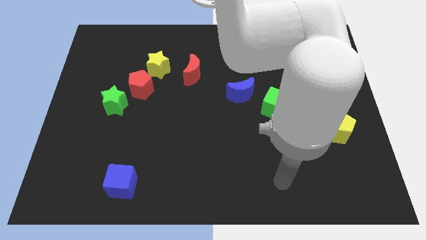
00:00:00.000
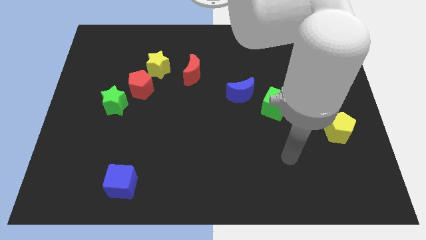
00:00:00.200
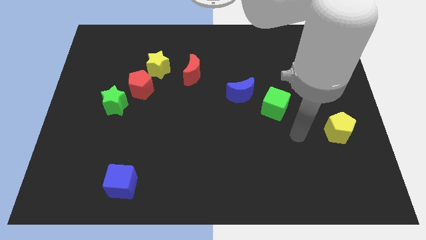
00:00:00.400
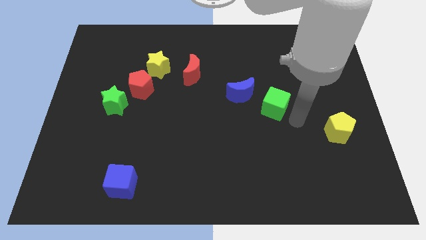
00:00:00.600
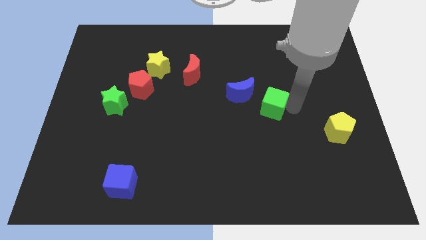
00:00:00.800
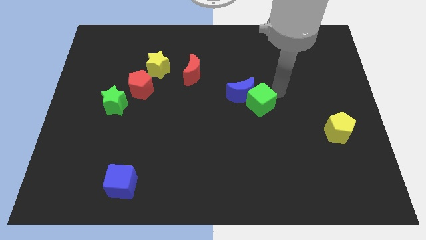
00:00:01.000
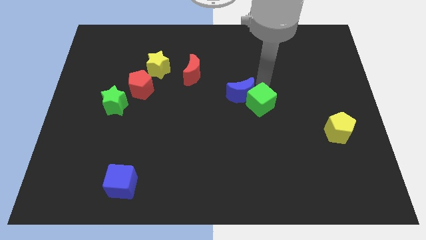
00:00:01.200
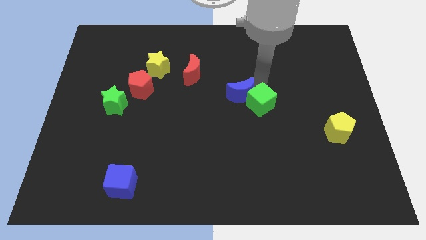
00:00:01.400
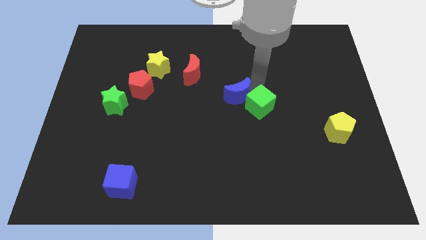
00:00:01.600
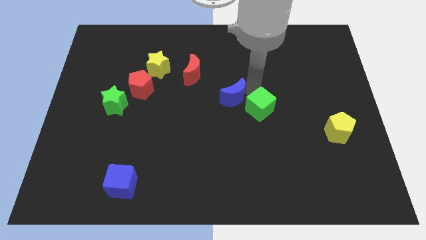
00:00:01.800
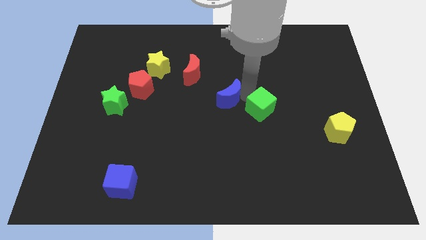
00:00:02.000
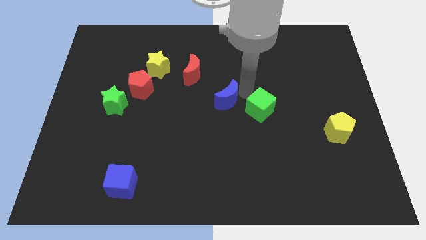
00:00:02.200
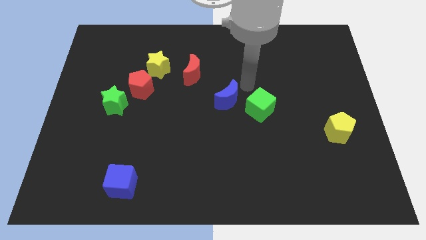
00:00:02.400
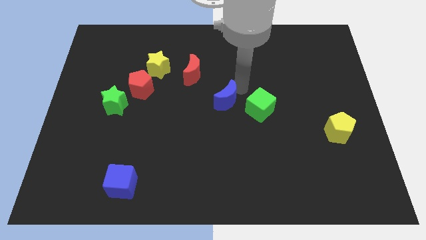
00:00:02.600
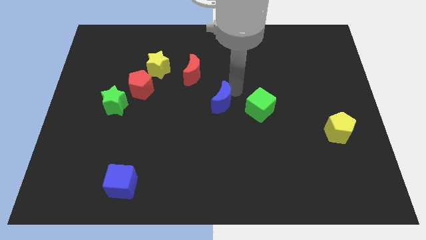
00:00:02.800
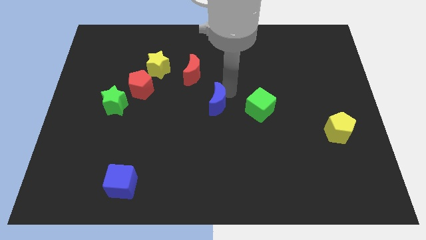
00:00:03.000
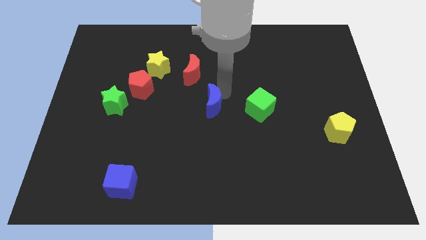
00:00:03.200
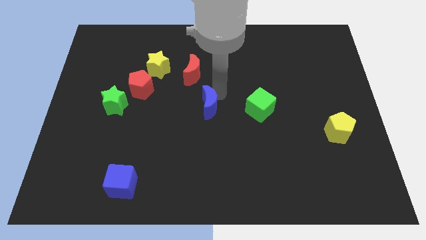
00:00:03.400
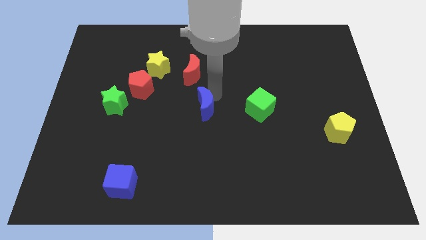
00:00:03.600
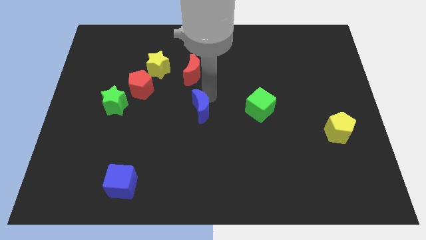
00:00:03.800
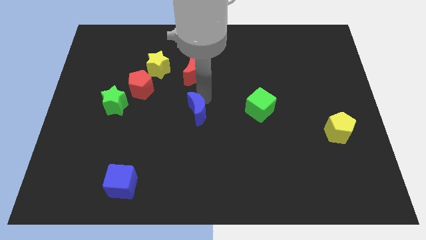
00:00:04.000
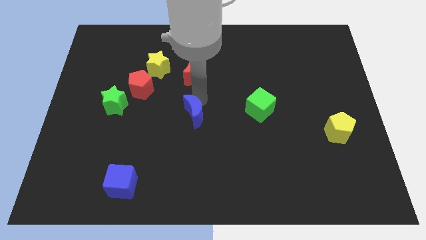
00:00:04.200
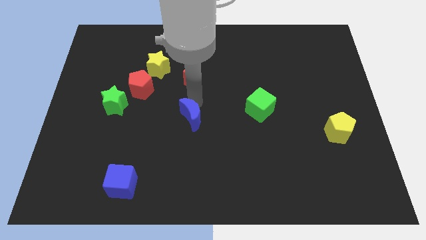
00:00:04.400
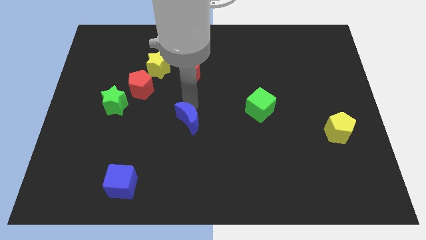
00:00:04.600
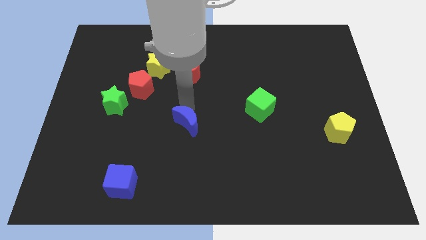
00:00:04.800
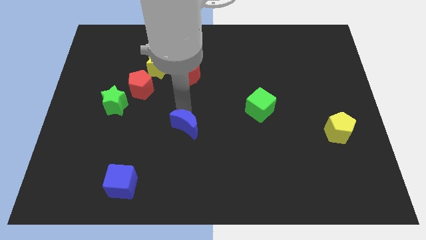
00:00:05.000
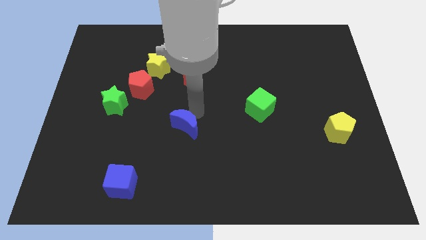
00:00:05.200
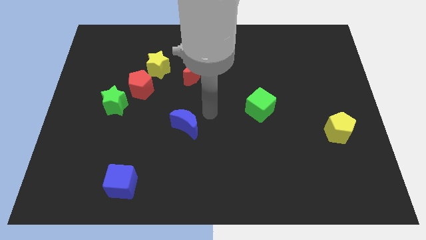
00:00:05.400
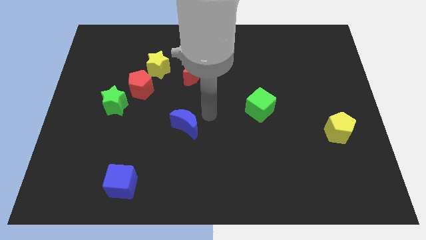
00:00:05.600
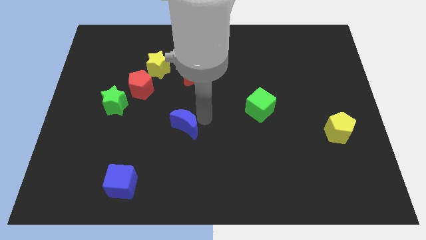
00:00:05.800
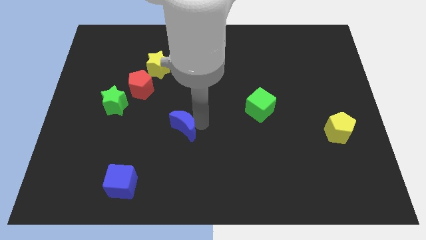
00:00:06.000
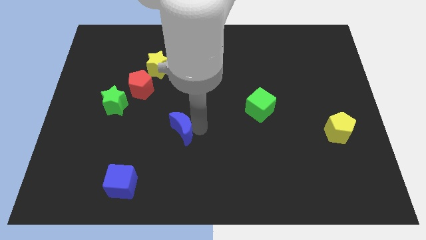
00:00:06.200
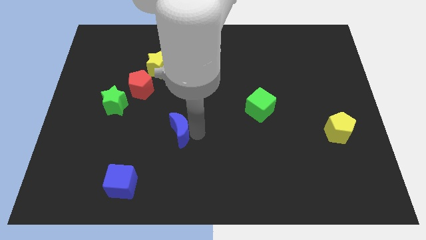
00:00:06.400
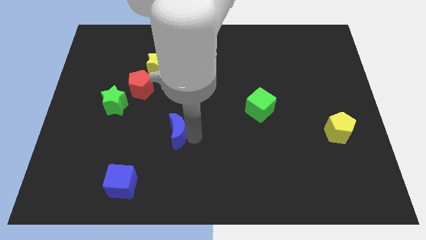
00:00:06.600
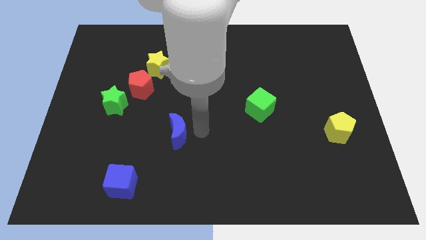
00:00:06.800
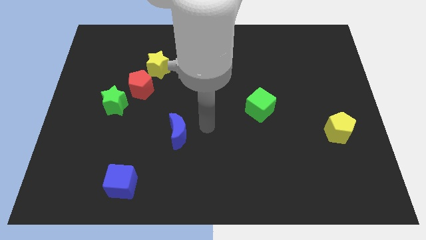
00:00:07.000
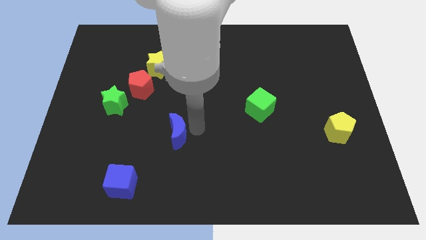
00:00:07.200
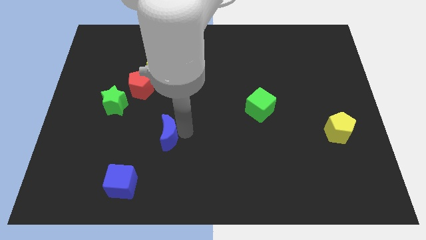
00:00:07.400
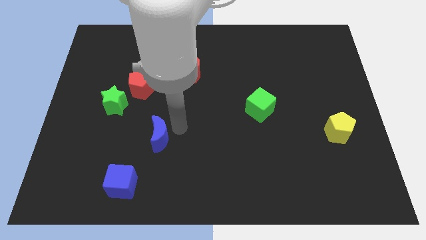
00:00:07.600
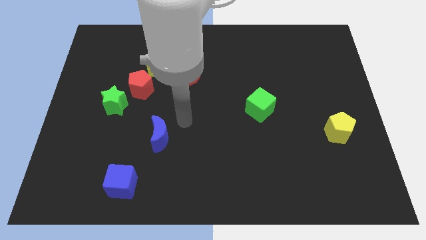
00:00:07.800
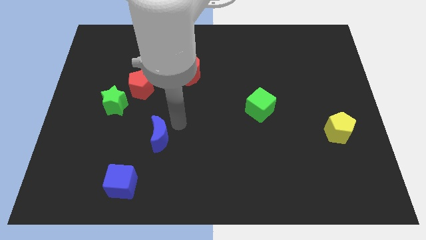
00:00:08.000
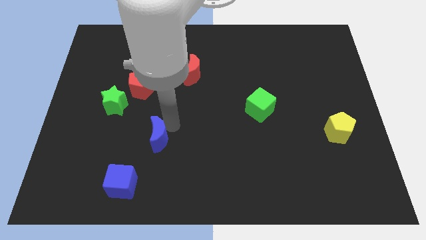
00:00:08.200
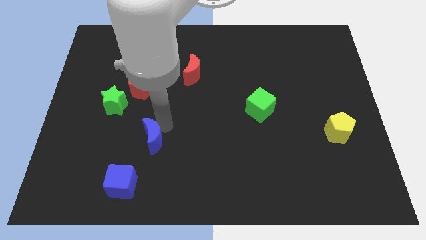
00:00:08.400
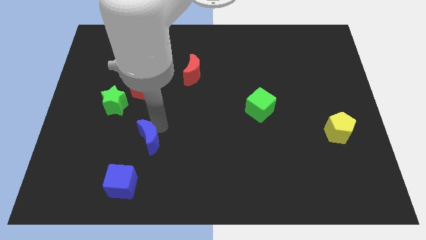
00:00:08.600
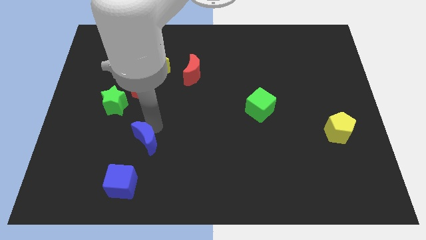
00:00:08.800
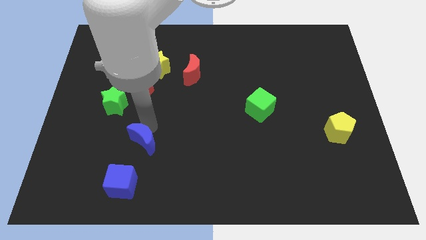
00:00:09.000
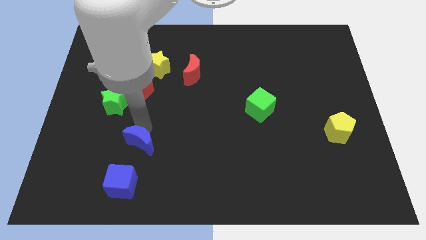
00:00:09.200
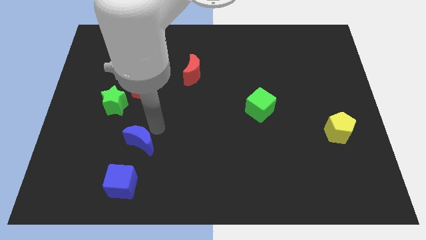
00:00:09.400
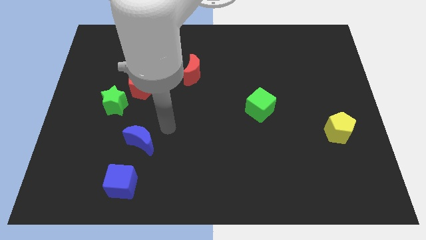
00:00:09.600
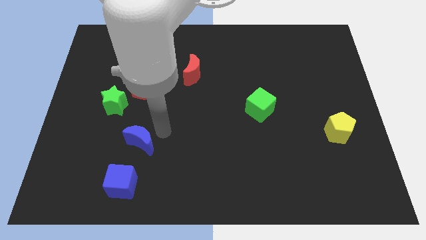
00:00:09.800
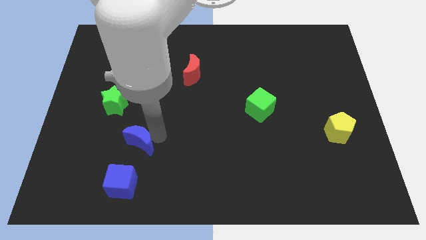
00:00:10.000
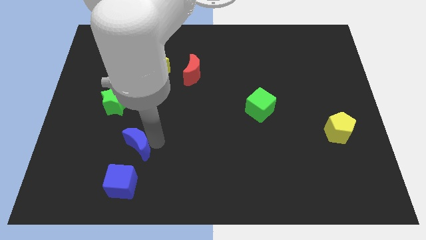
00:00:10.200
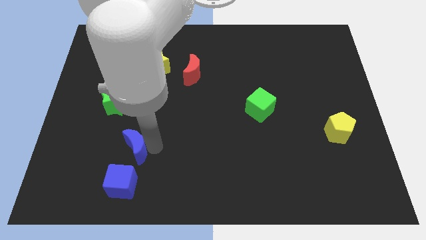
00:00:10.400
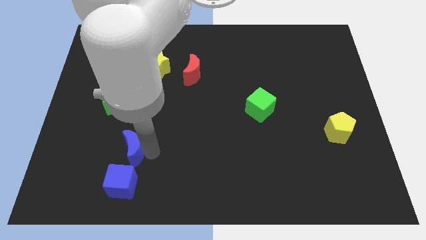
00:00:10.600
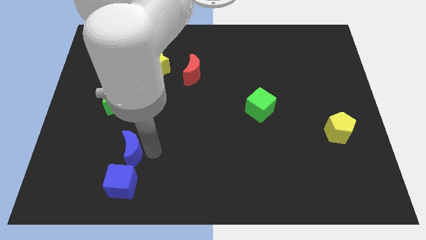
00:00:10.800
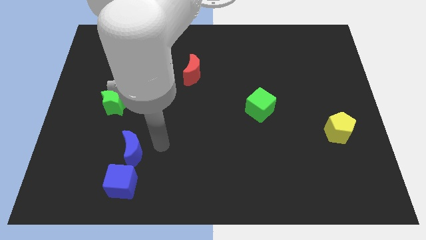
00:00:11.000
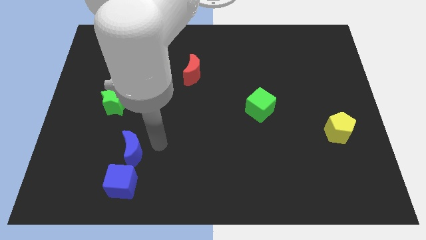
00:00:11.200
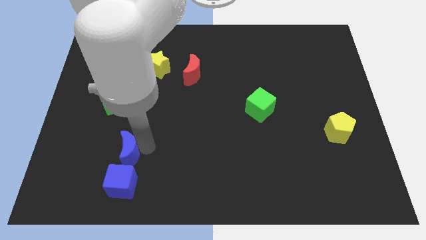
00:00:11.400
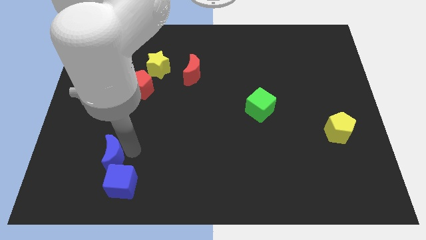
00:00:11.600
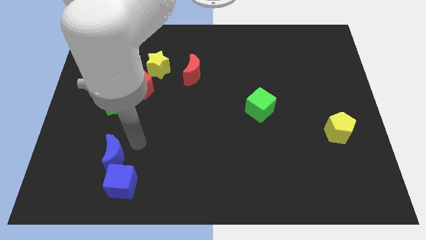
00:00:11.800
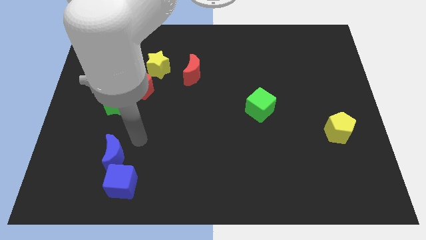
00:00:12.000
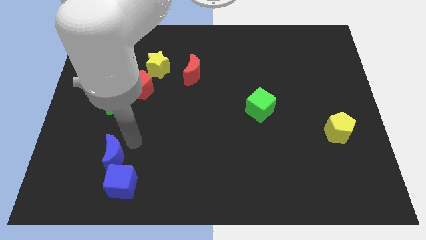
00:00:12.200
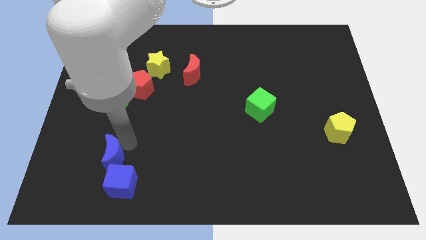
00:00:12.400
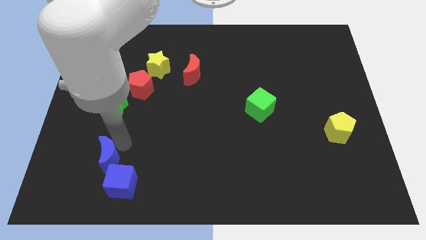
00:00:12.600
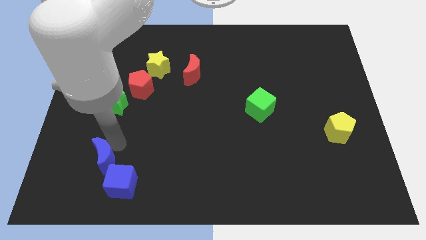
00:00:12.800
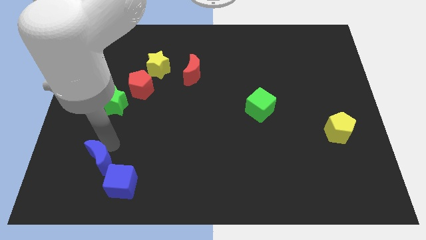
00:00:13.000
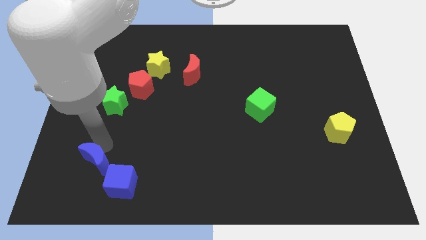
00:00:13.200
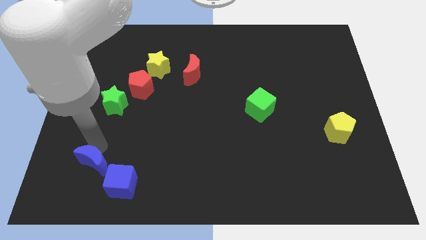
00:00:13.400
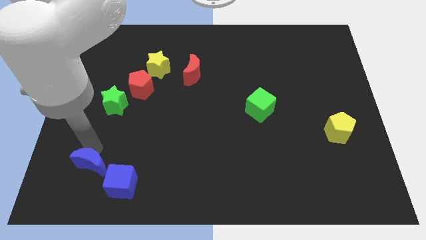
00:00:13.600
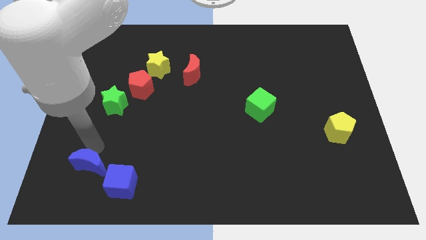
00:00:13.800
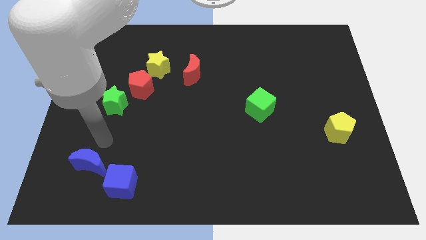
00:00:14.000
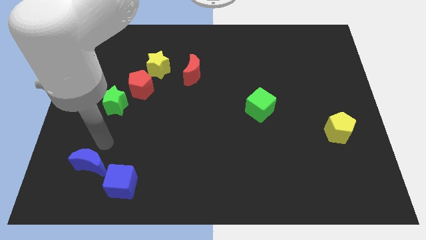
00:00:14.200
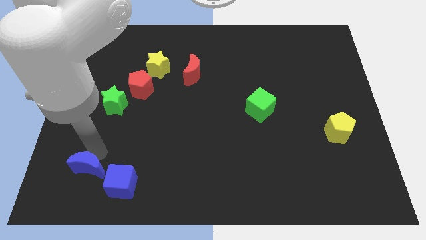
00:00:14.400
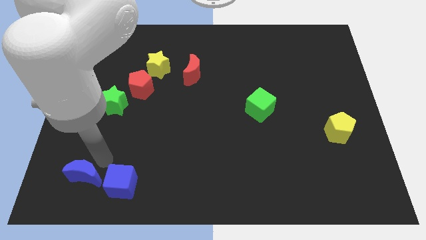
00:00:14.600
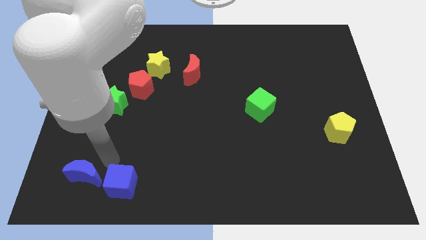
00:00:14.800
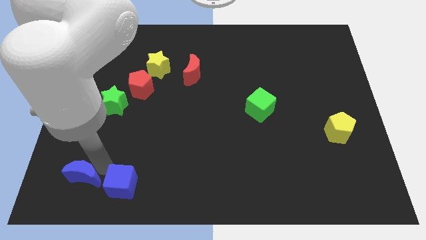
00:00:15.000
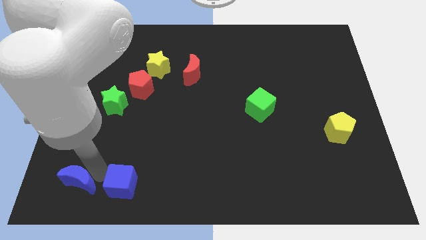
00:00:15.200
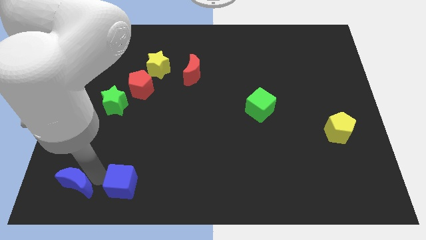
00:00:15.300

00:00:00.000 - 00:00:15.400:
put the blue moon to the lower left corner
